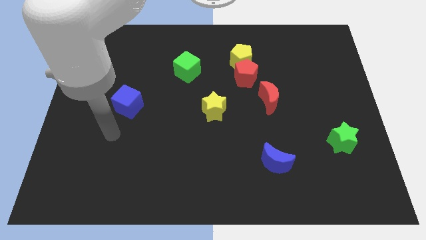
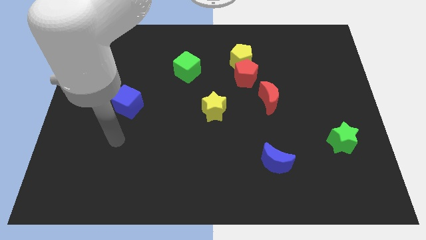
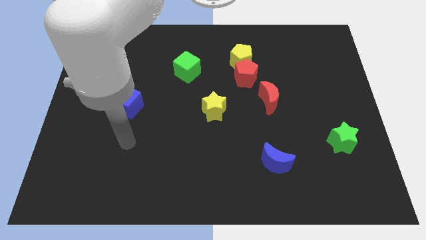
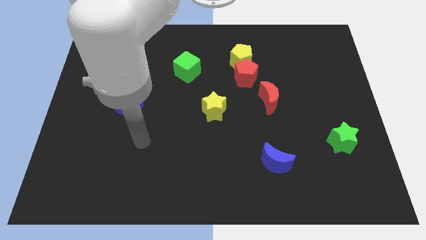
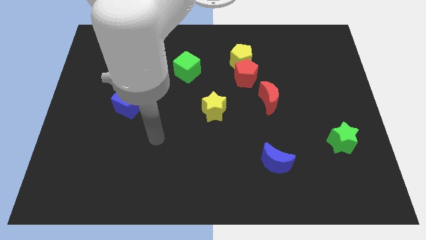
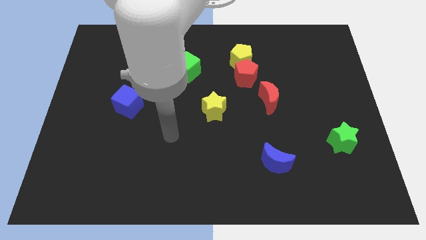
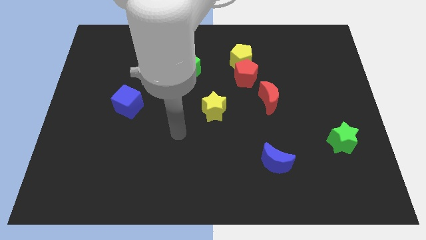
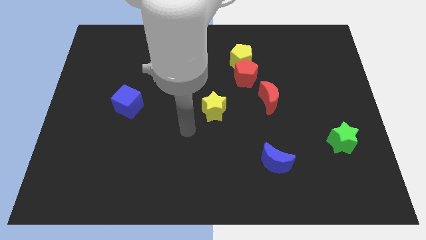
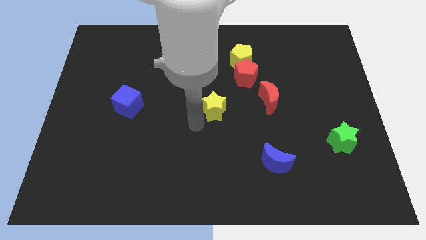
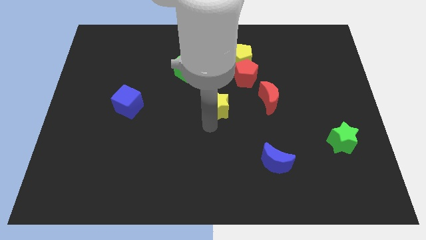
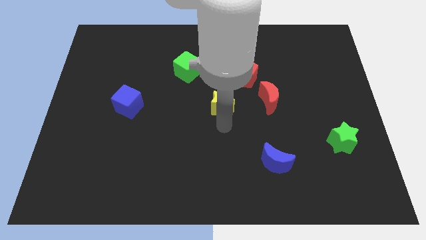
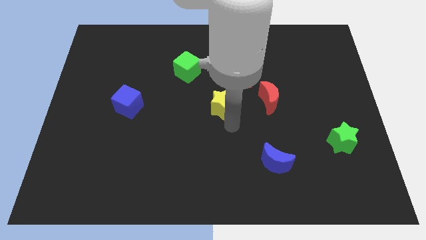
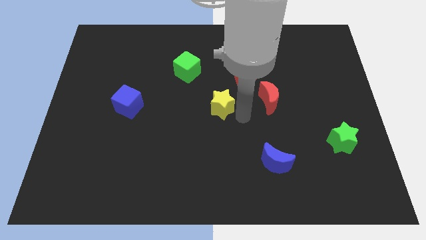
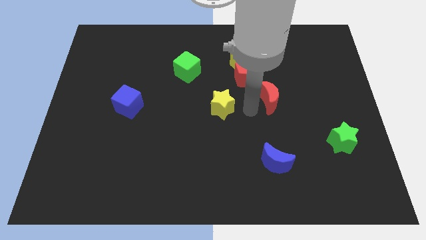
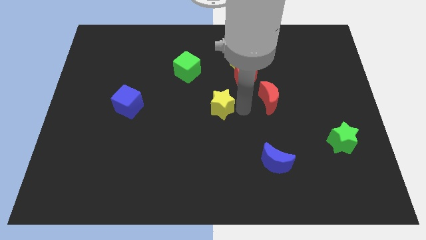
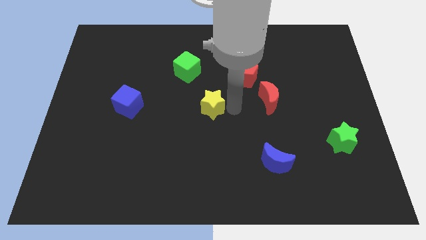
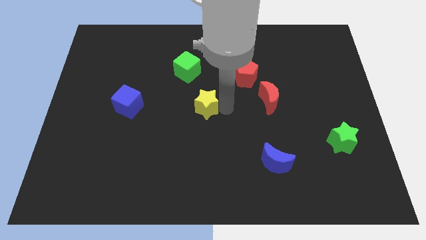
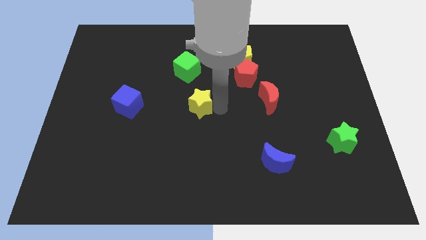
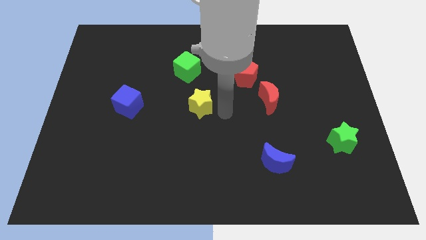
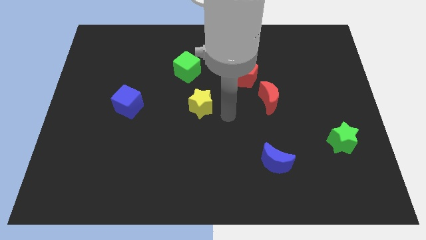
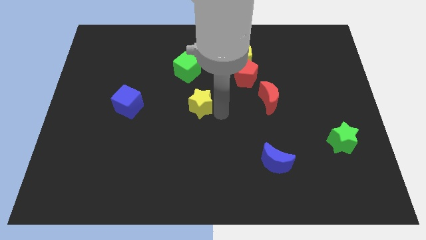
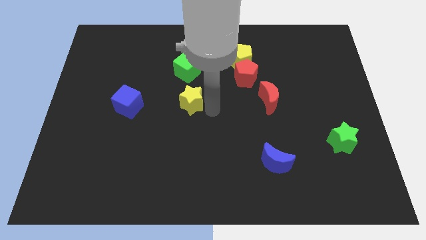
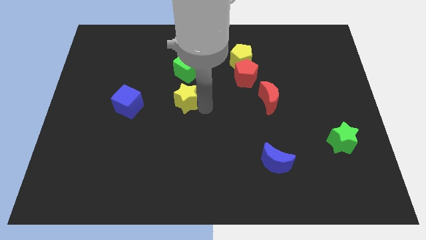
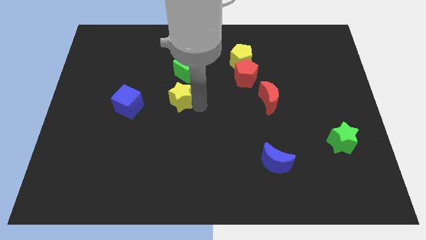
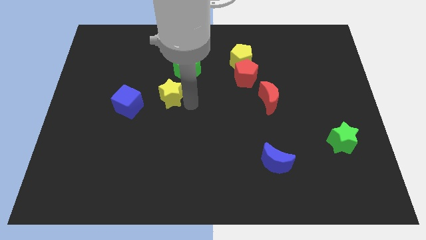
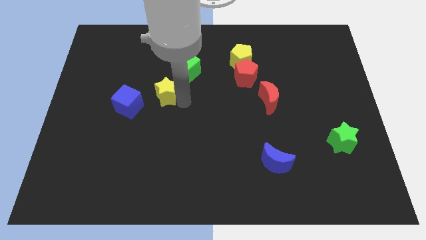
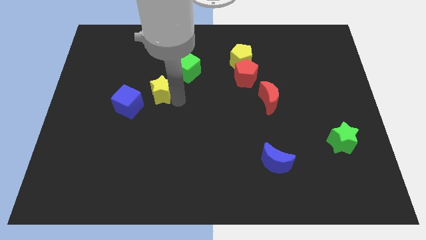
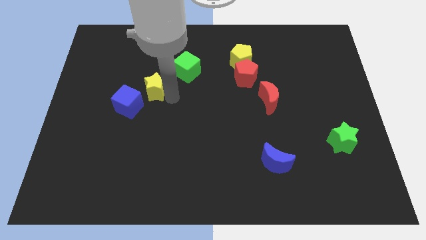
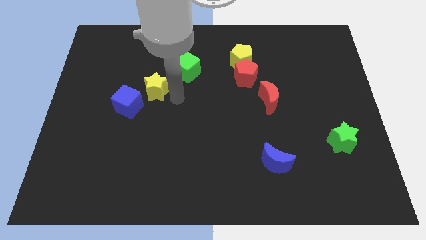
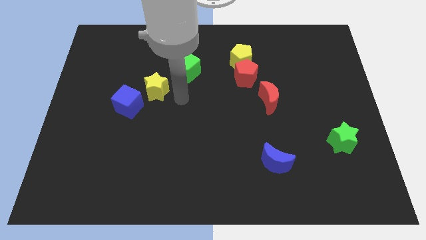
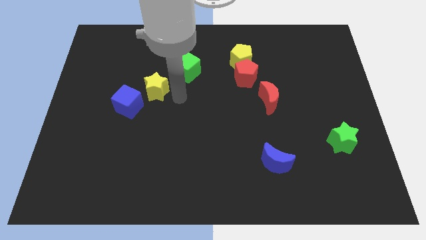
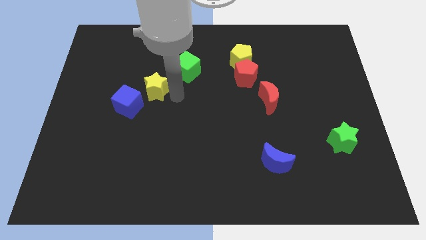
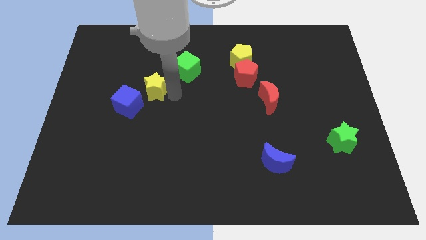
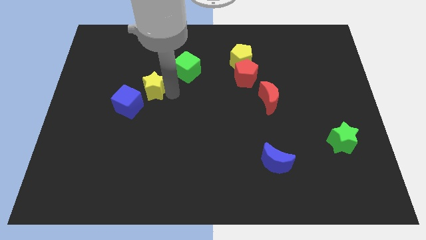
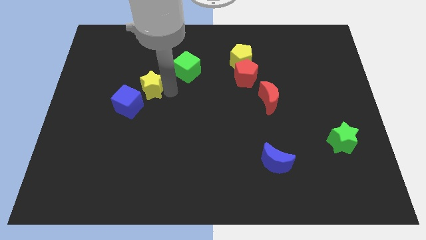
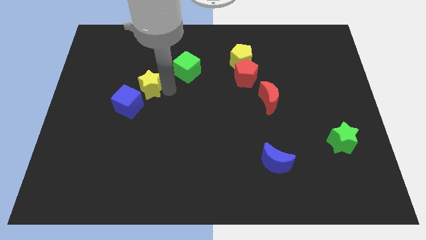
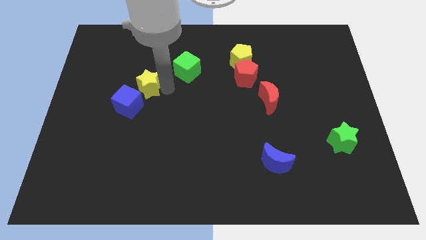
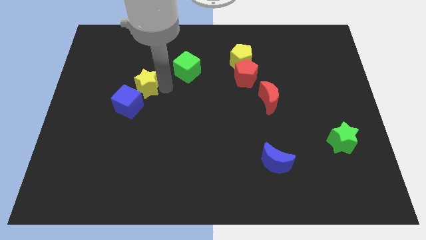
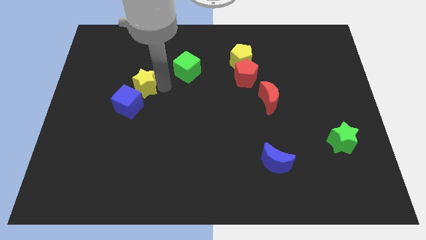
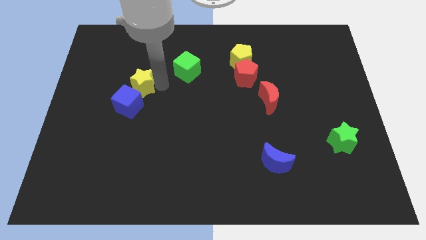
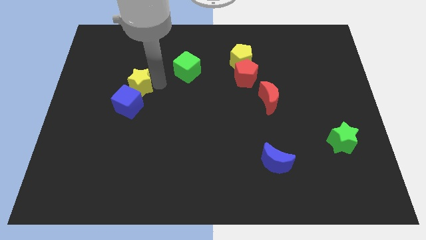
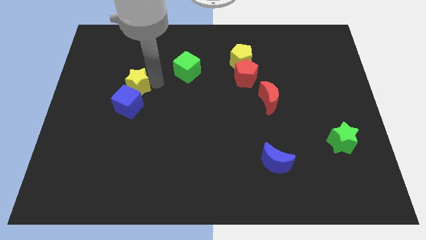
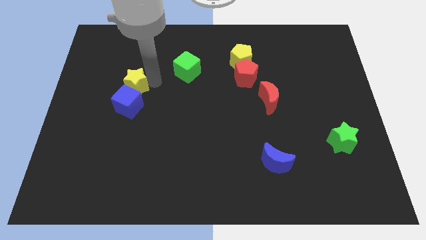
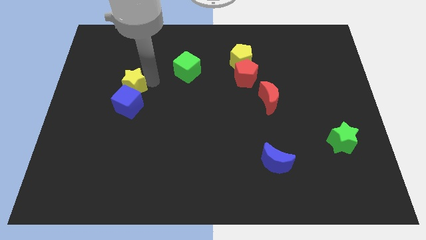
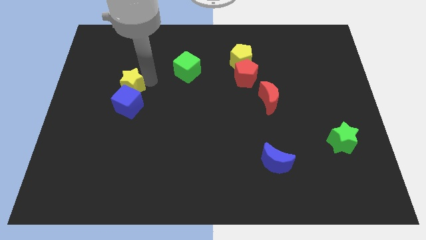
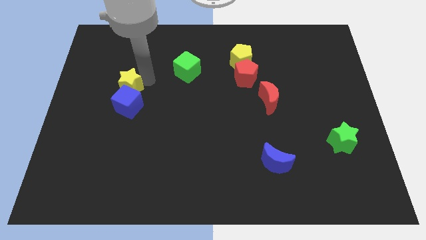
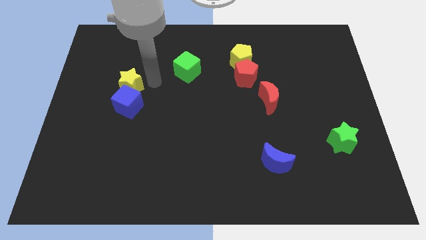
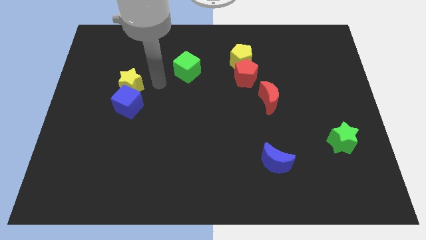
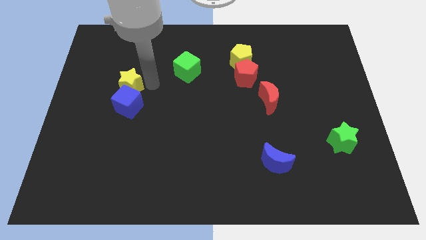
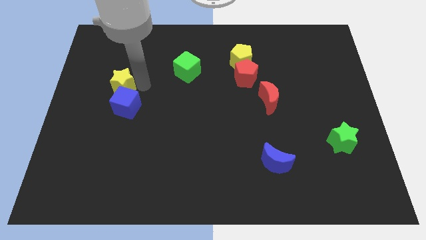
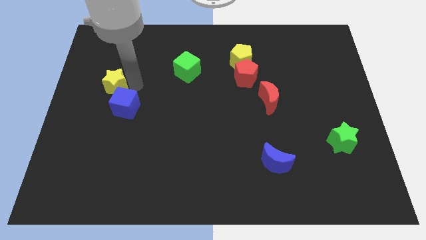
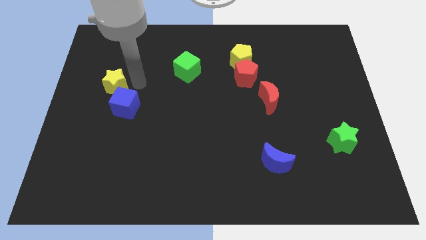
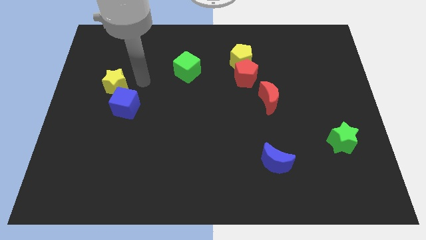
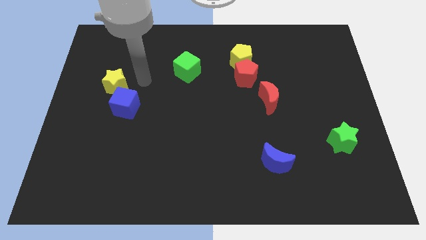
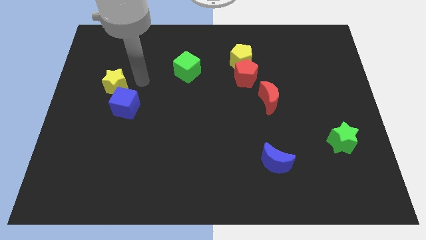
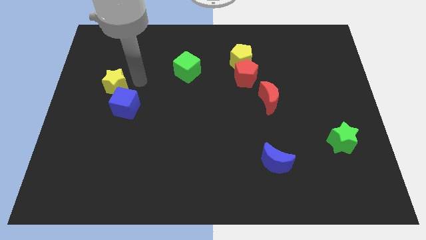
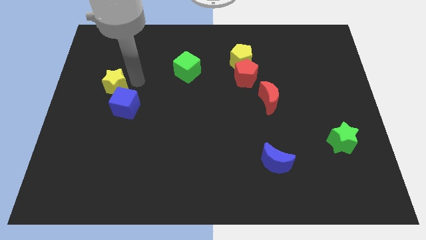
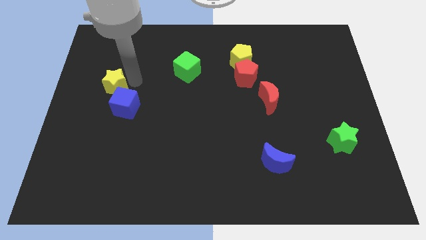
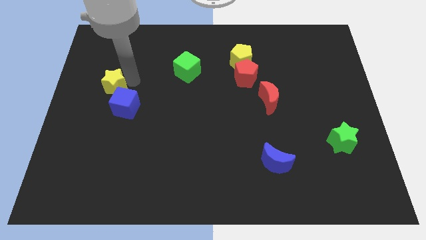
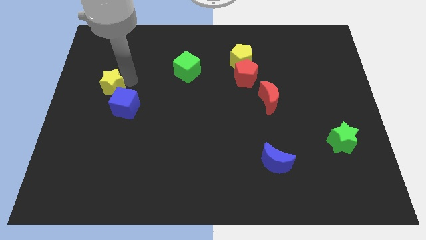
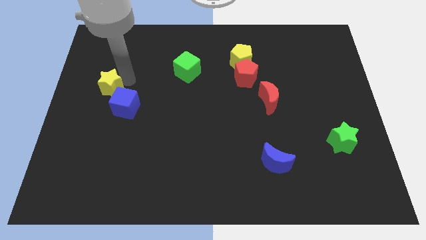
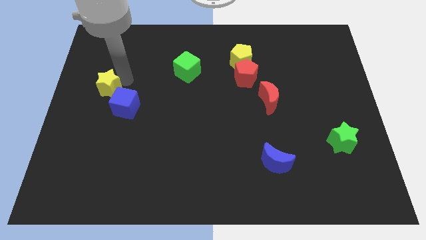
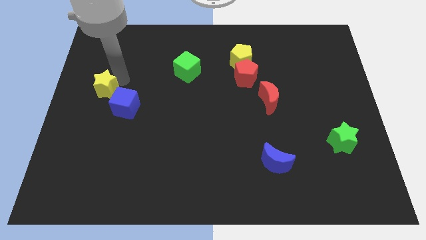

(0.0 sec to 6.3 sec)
push the yellow star to the center left

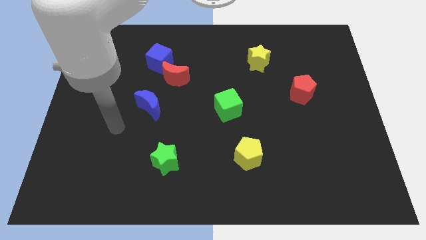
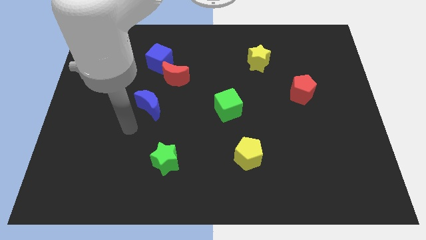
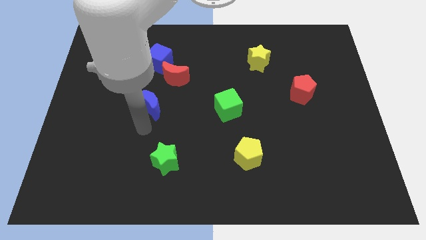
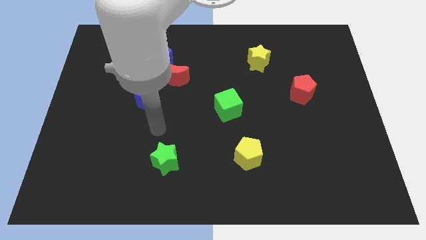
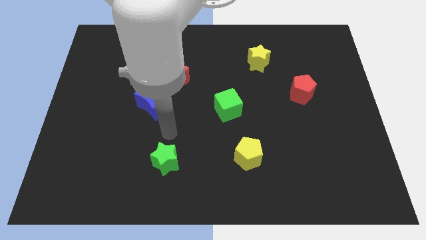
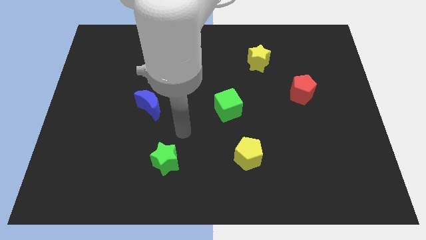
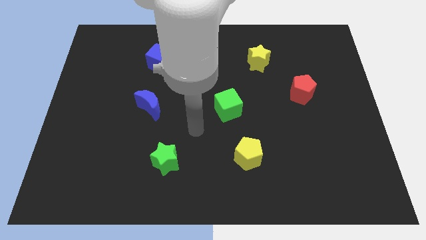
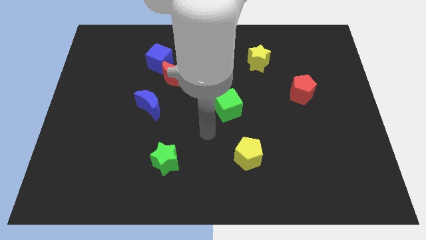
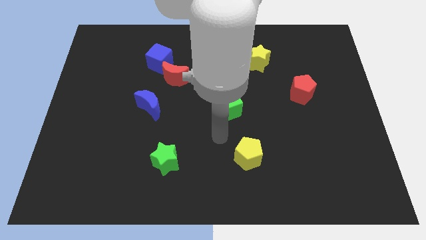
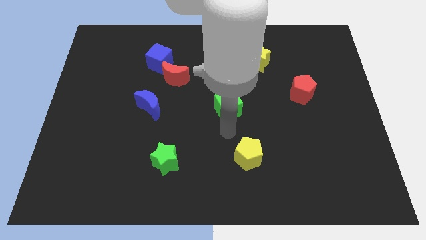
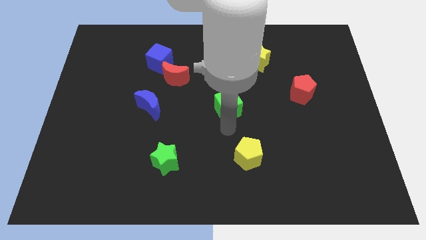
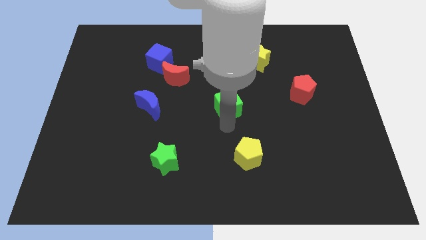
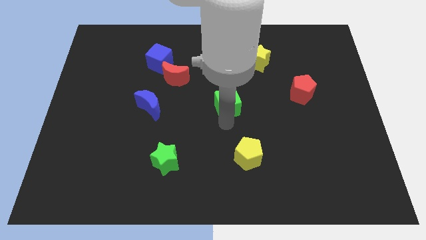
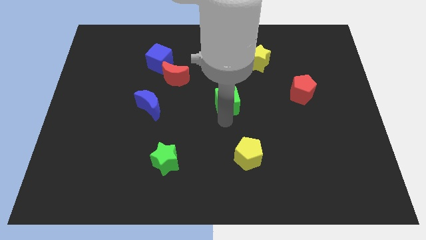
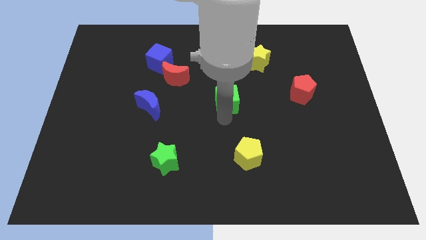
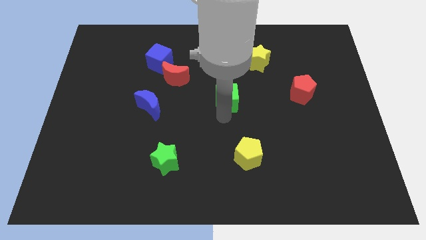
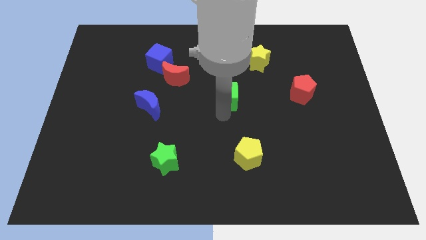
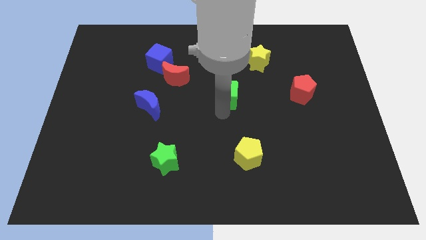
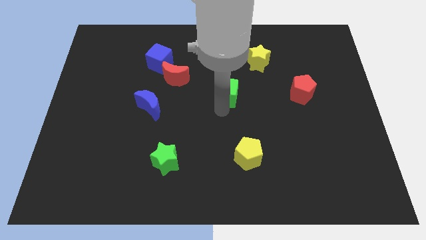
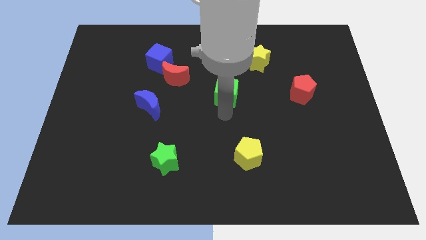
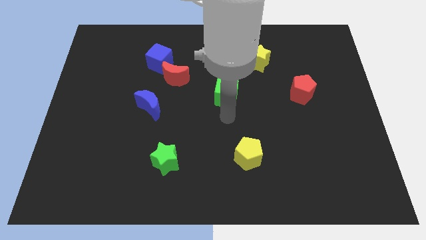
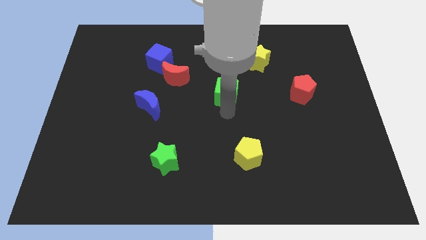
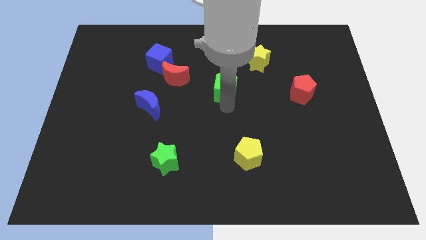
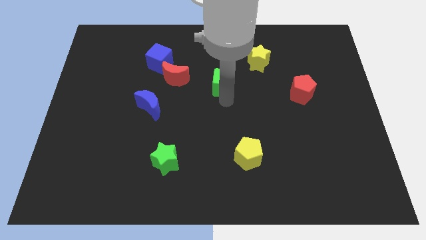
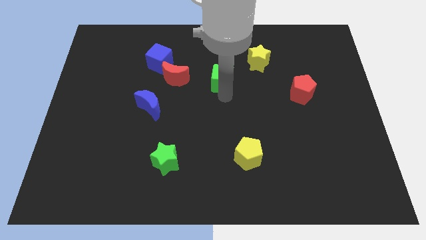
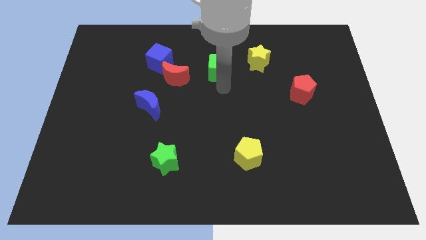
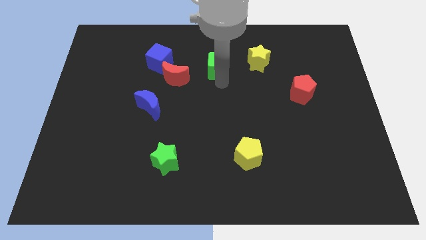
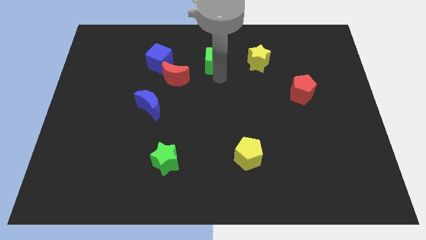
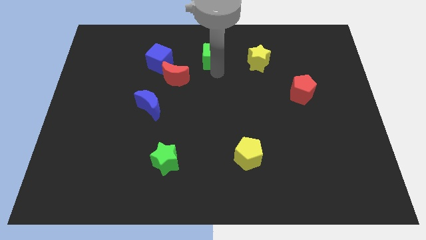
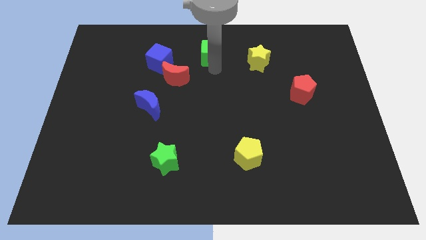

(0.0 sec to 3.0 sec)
move the green cube to the towards your base
